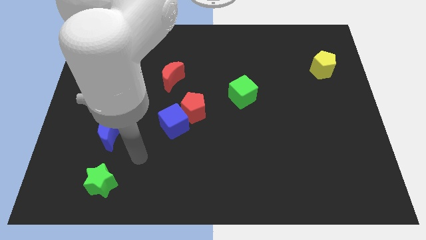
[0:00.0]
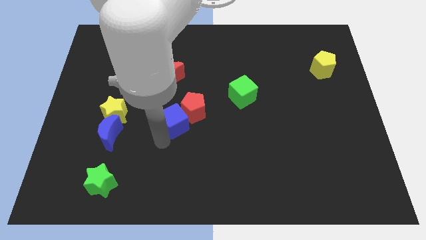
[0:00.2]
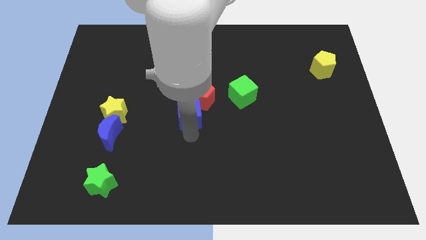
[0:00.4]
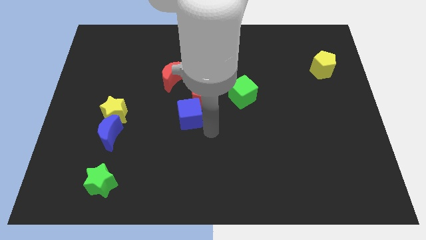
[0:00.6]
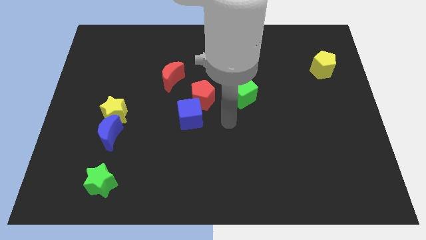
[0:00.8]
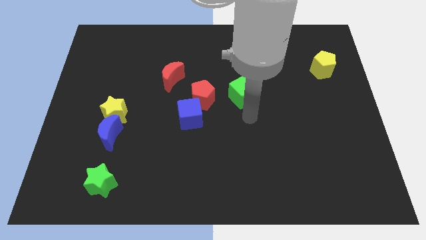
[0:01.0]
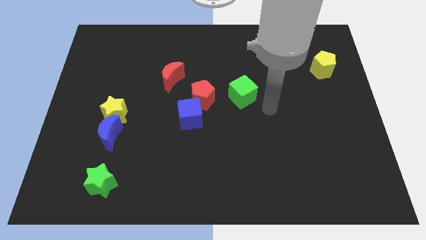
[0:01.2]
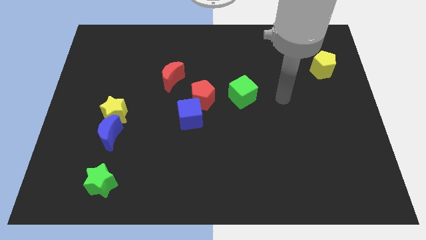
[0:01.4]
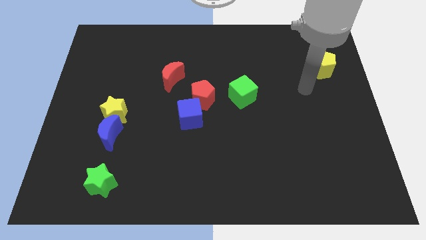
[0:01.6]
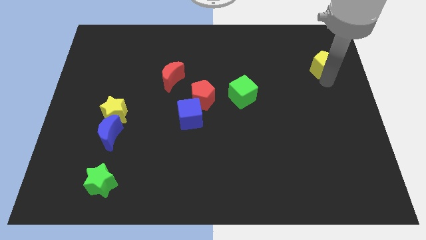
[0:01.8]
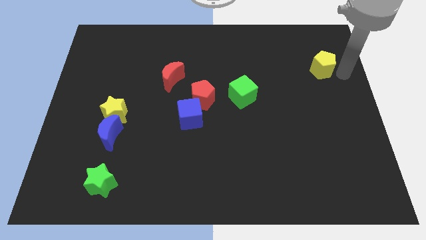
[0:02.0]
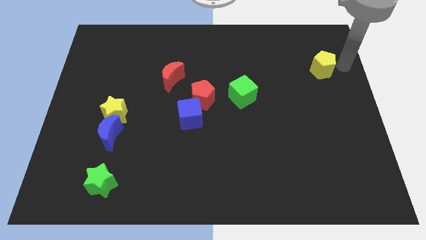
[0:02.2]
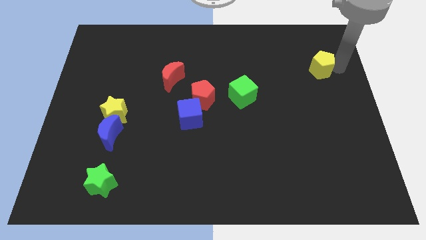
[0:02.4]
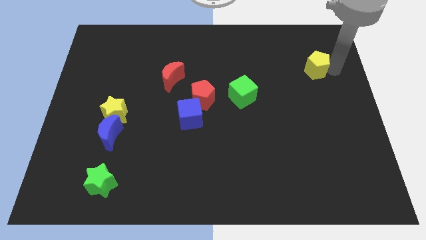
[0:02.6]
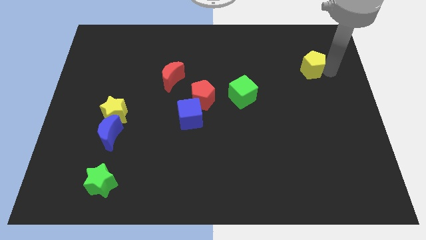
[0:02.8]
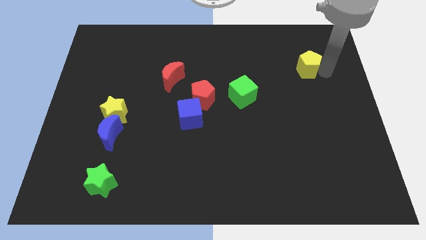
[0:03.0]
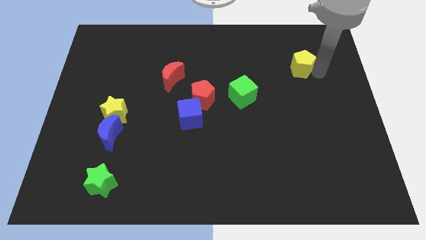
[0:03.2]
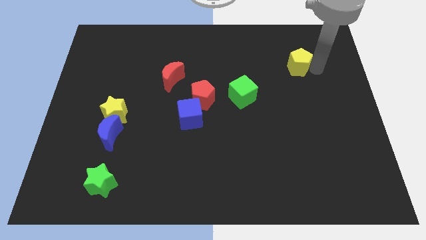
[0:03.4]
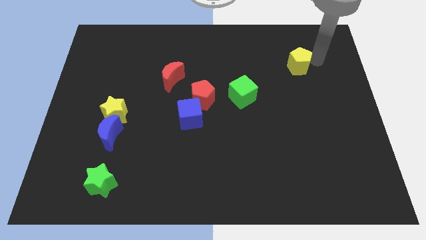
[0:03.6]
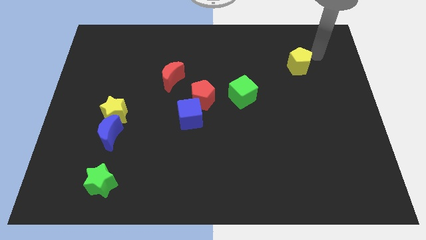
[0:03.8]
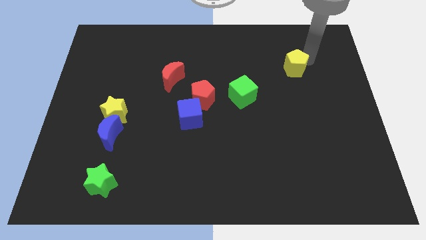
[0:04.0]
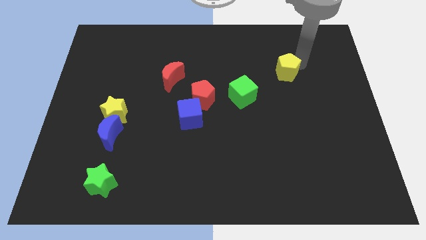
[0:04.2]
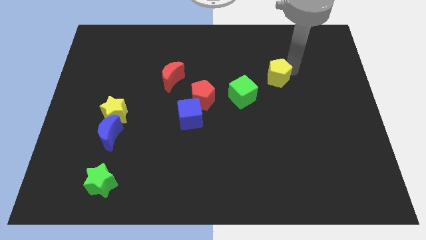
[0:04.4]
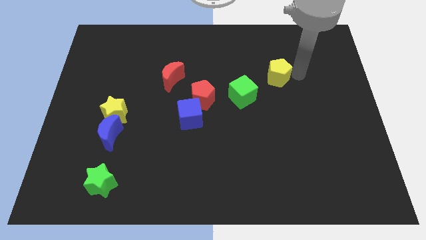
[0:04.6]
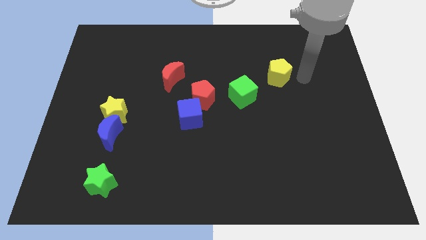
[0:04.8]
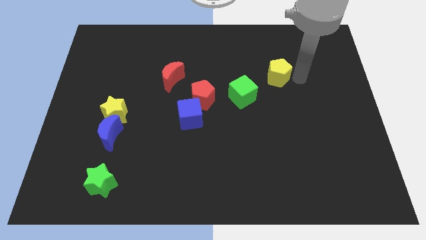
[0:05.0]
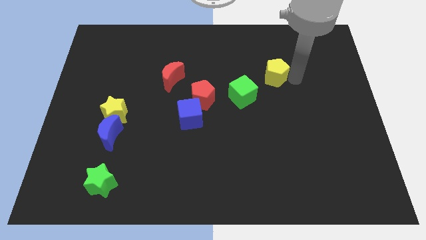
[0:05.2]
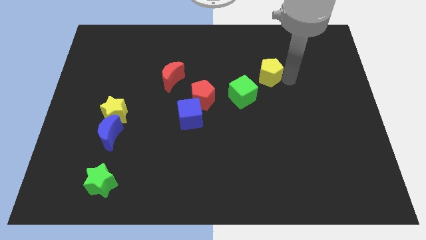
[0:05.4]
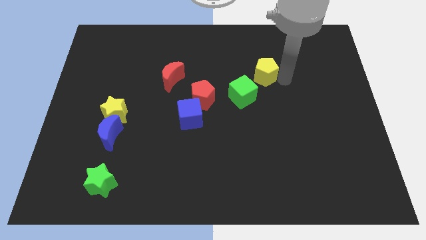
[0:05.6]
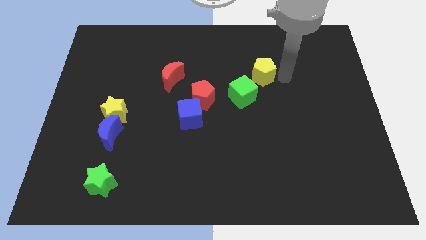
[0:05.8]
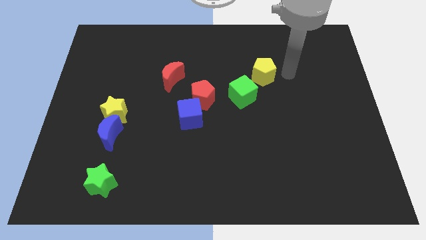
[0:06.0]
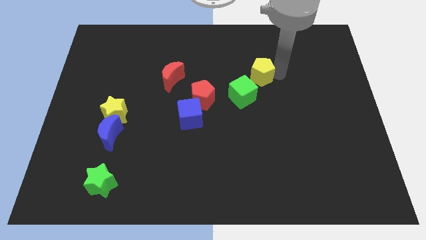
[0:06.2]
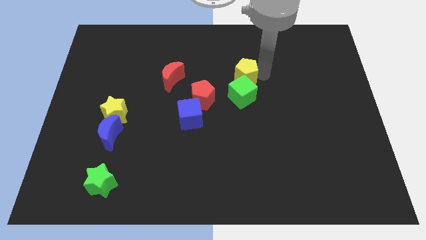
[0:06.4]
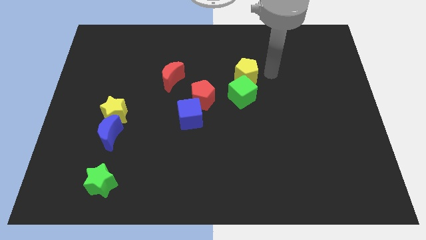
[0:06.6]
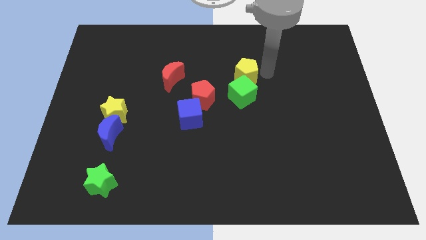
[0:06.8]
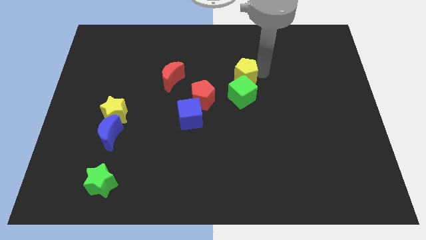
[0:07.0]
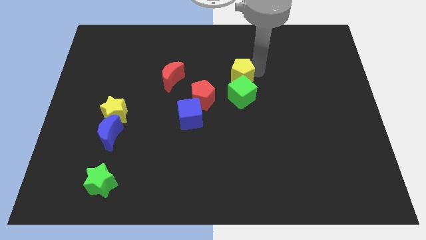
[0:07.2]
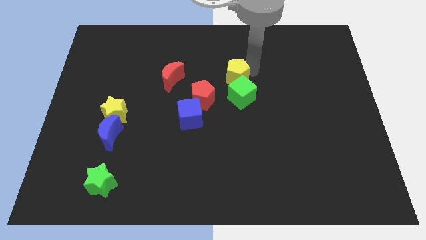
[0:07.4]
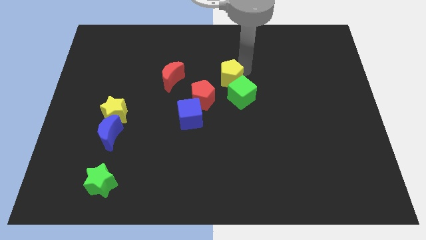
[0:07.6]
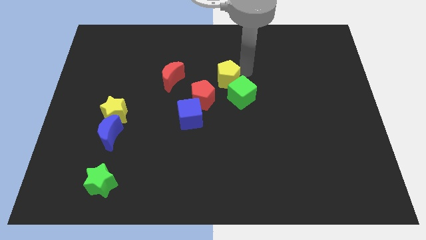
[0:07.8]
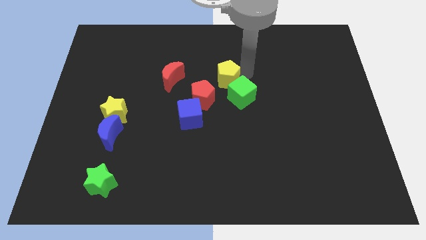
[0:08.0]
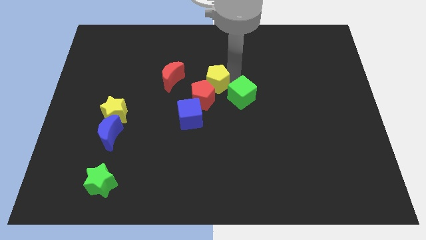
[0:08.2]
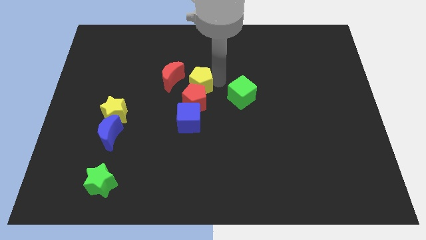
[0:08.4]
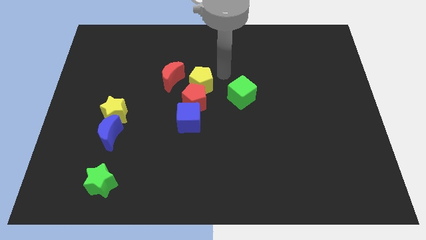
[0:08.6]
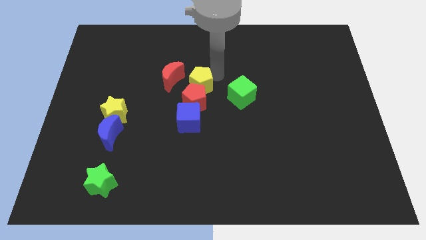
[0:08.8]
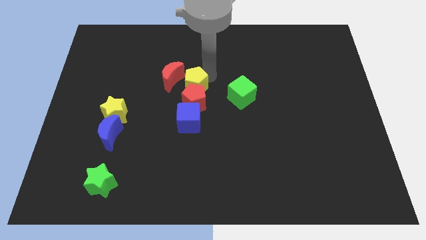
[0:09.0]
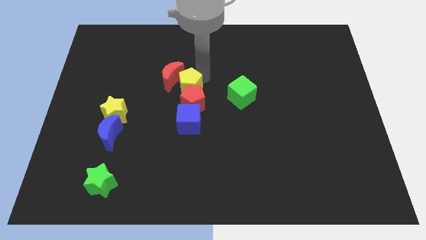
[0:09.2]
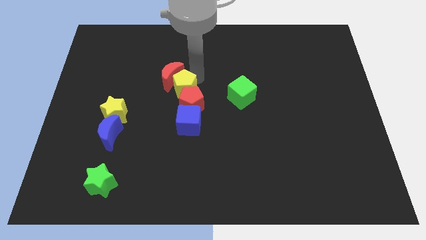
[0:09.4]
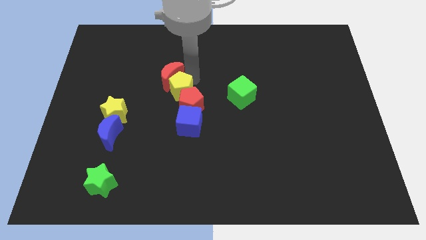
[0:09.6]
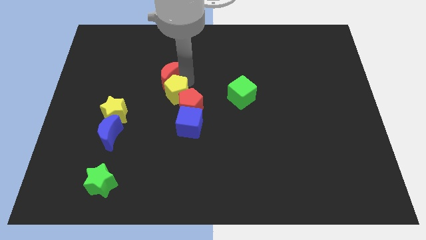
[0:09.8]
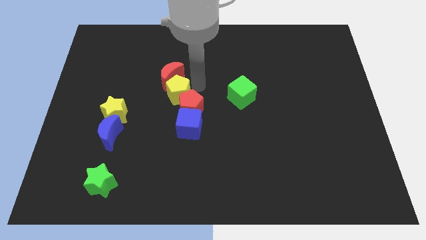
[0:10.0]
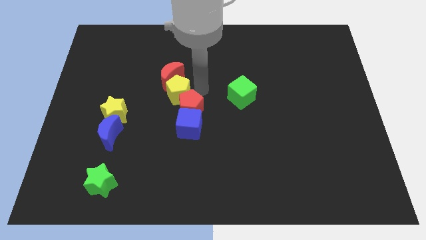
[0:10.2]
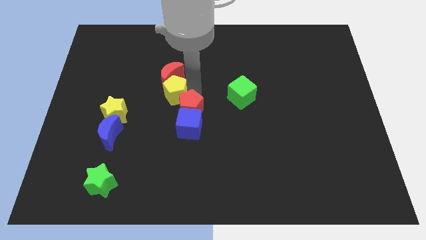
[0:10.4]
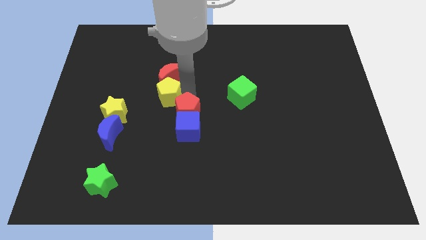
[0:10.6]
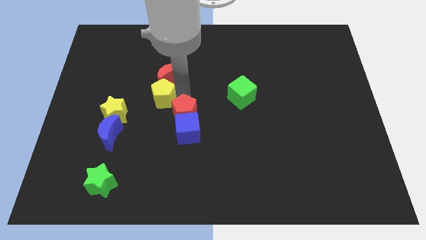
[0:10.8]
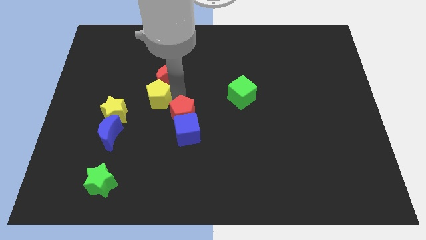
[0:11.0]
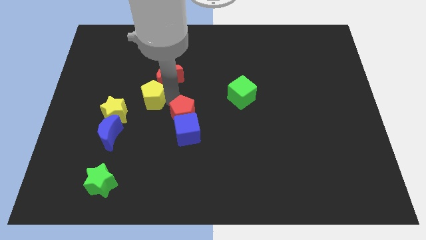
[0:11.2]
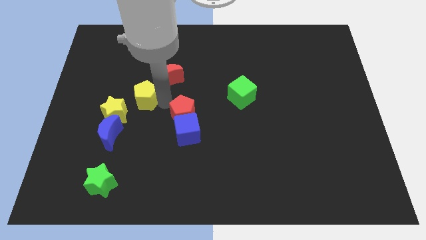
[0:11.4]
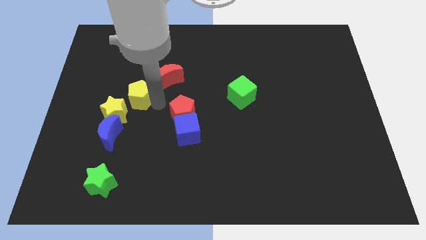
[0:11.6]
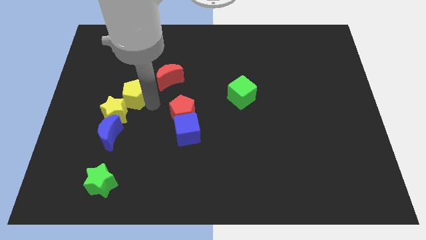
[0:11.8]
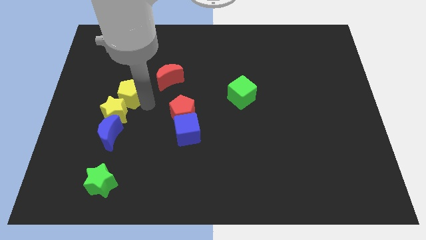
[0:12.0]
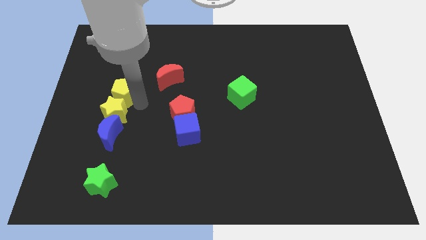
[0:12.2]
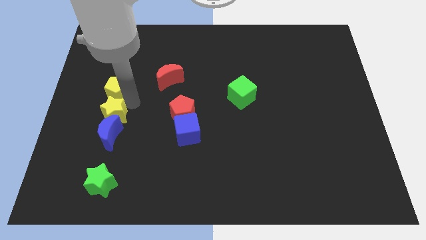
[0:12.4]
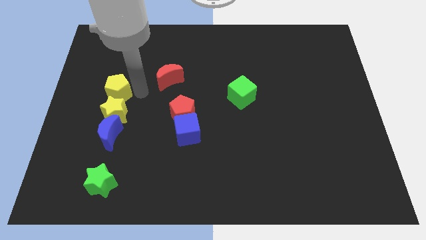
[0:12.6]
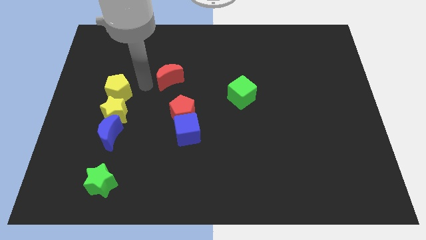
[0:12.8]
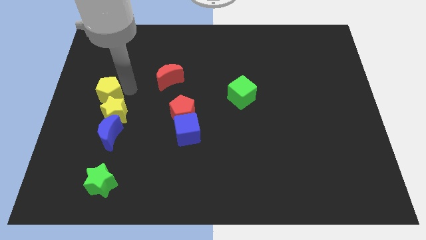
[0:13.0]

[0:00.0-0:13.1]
push the yellow pentagon to the left side of the board
